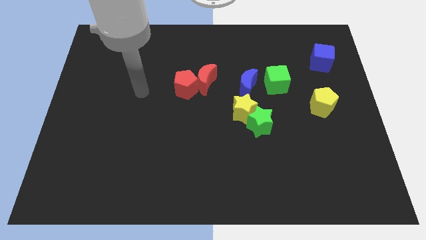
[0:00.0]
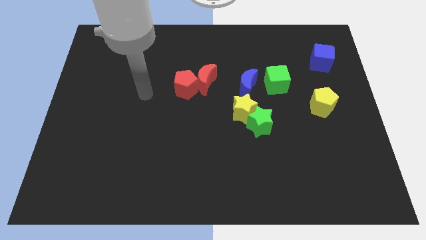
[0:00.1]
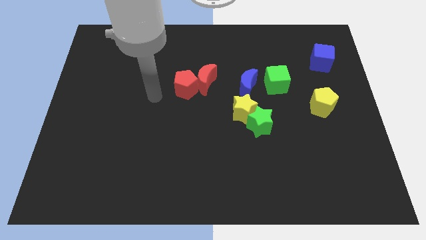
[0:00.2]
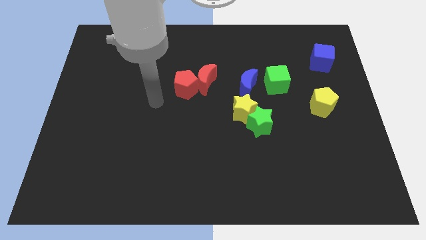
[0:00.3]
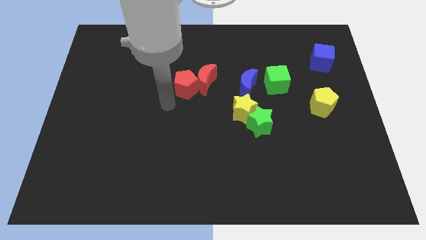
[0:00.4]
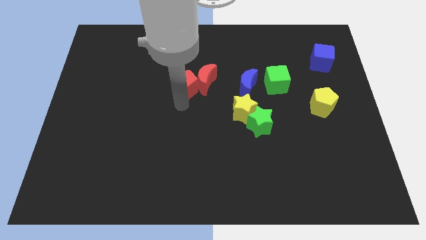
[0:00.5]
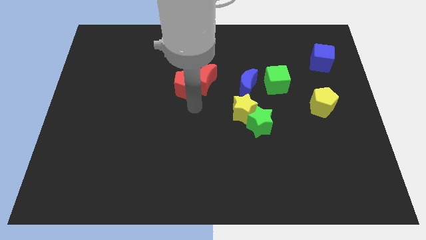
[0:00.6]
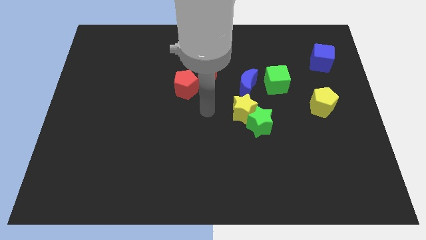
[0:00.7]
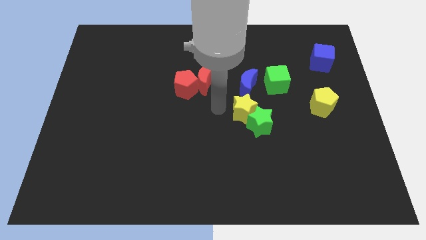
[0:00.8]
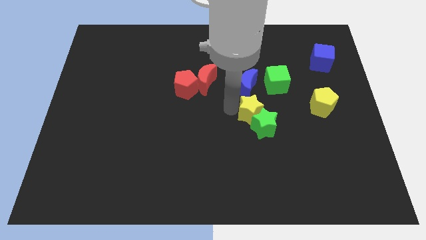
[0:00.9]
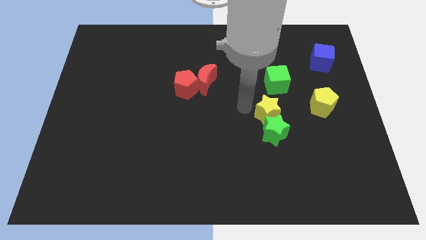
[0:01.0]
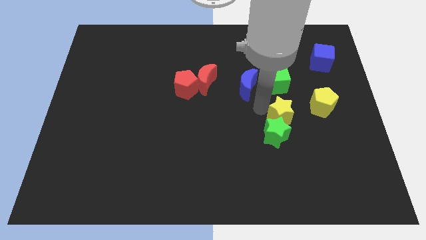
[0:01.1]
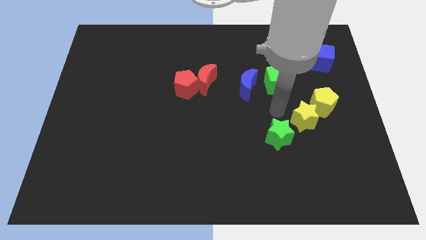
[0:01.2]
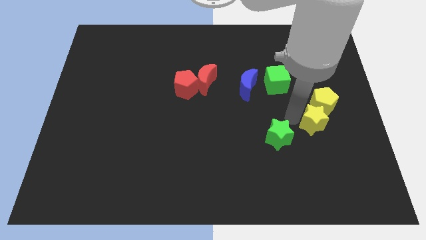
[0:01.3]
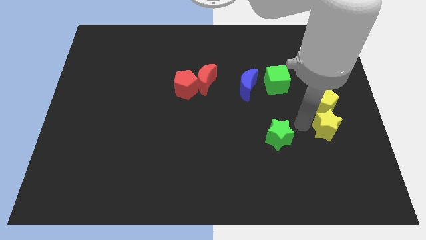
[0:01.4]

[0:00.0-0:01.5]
separate the green star from the yellow star

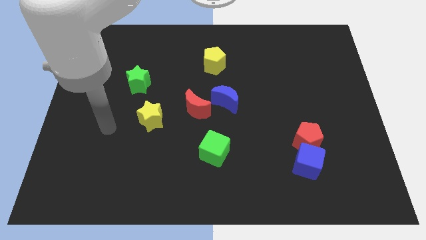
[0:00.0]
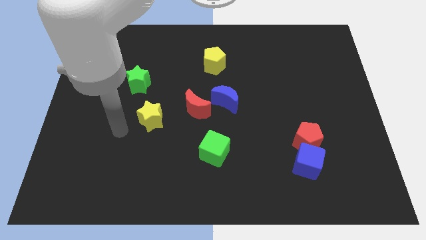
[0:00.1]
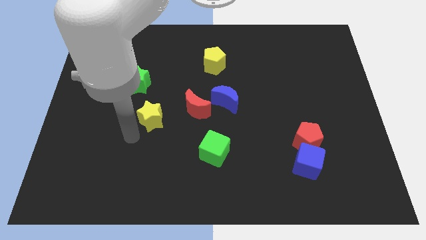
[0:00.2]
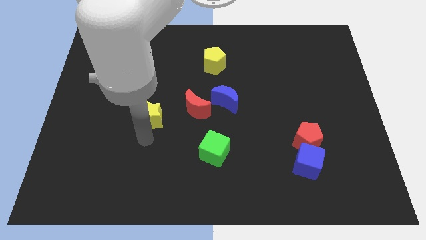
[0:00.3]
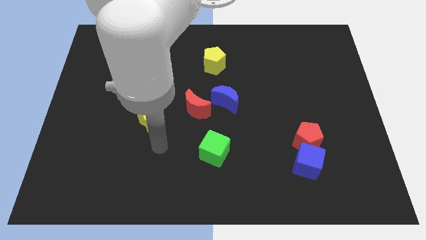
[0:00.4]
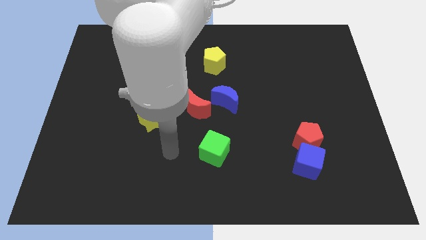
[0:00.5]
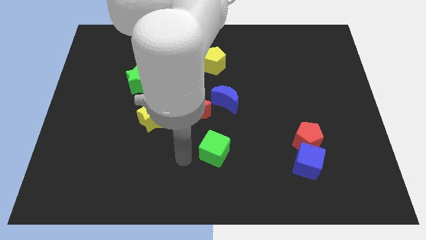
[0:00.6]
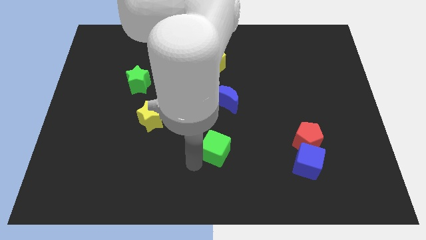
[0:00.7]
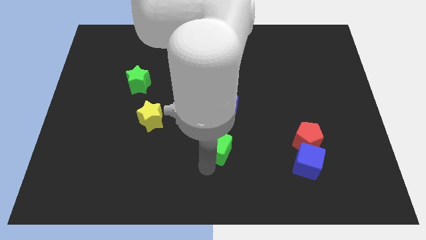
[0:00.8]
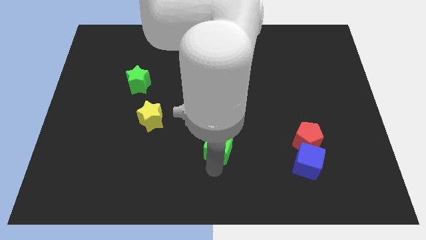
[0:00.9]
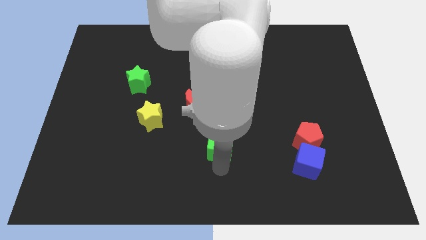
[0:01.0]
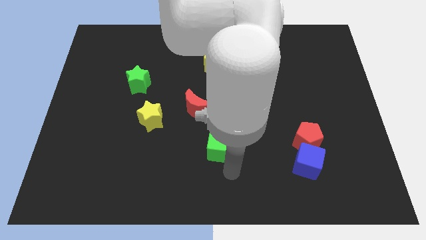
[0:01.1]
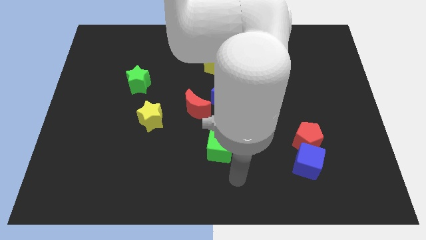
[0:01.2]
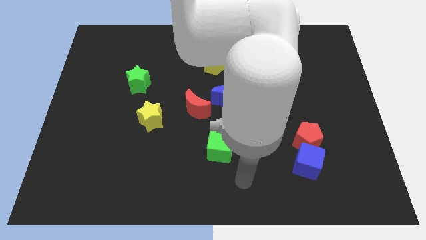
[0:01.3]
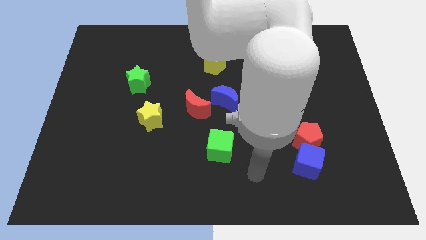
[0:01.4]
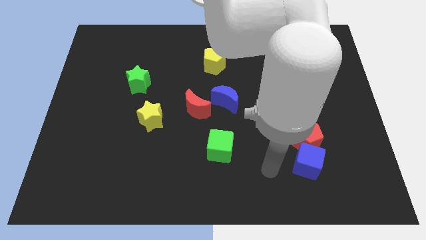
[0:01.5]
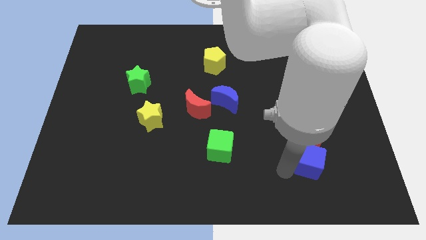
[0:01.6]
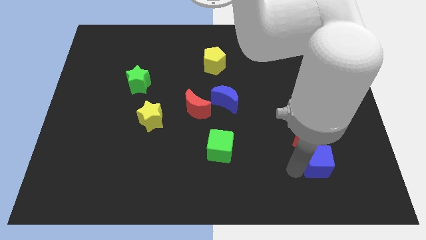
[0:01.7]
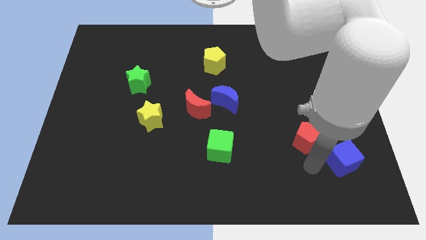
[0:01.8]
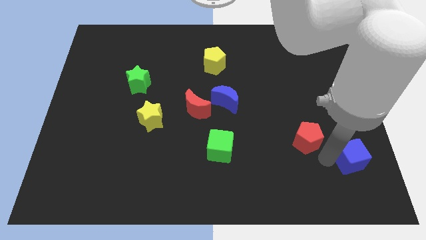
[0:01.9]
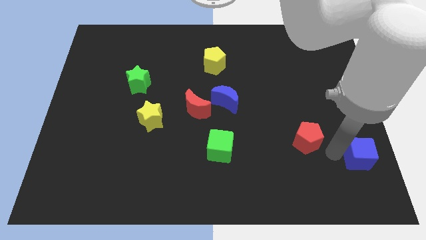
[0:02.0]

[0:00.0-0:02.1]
pull the red pentagon apart from the blue cube

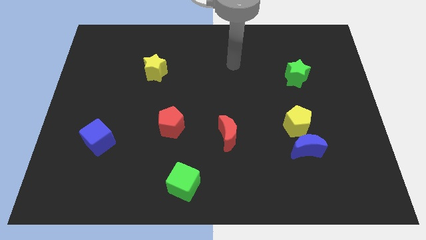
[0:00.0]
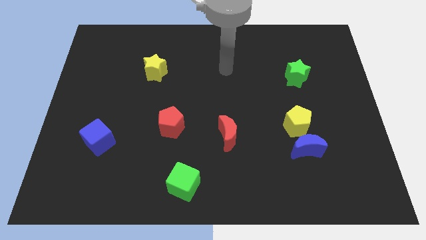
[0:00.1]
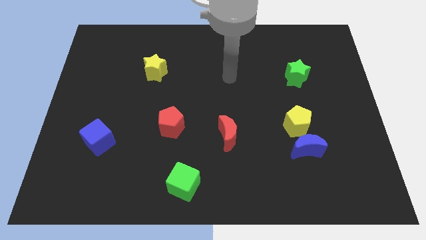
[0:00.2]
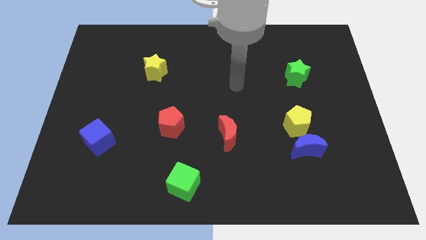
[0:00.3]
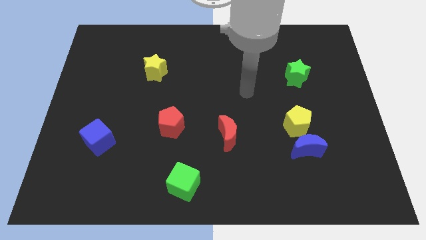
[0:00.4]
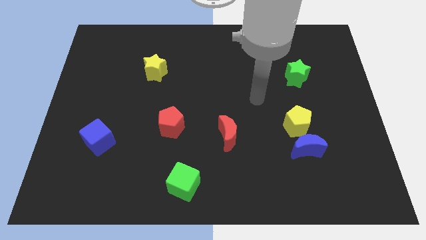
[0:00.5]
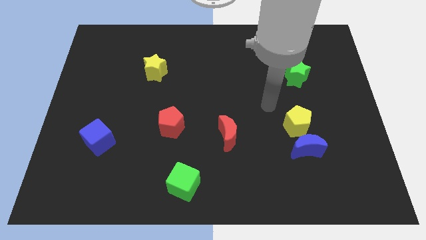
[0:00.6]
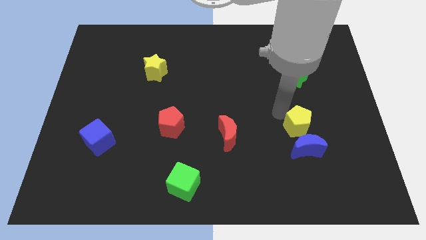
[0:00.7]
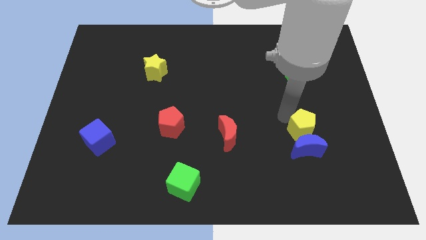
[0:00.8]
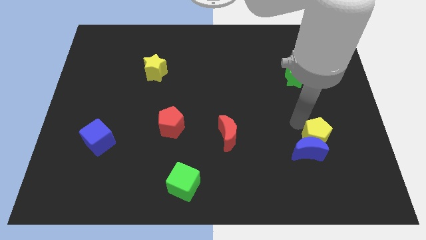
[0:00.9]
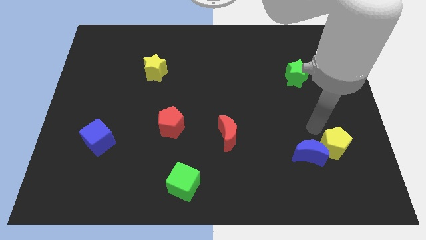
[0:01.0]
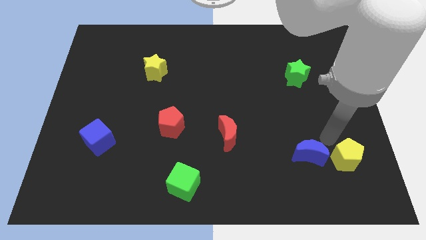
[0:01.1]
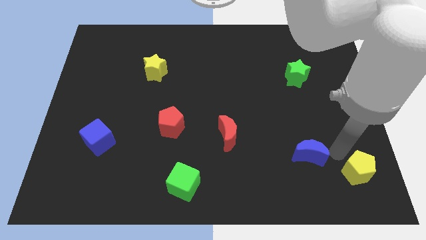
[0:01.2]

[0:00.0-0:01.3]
separate the blue moon from the yellow pentagon

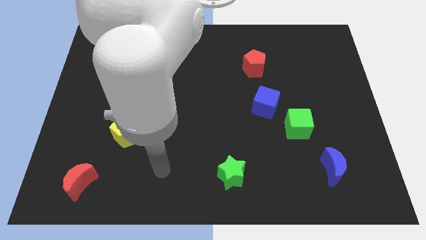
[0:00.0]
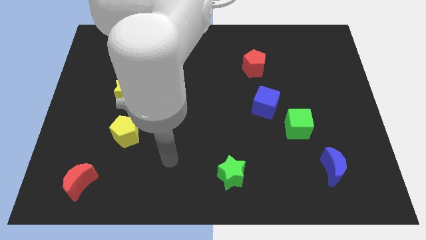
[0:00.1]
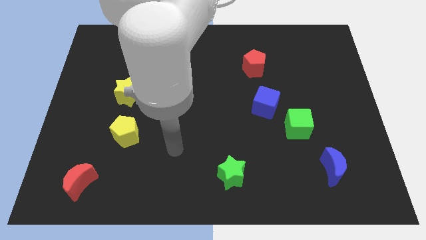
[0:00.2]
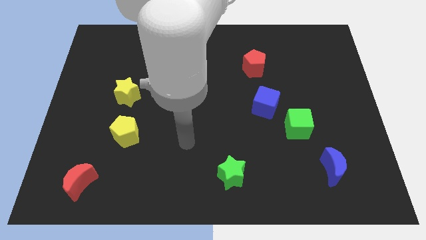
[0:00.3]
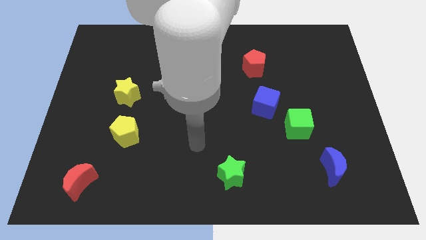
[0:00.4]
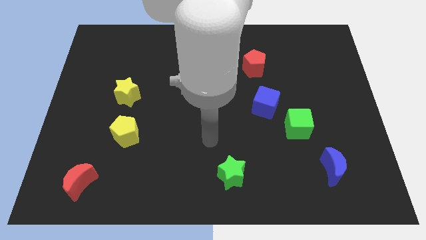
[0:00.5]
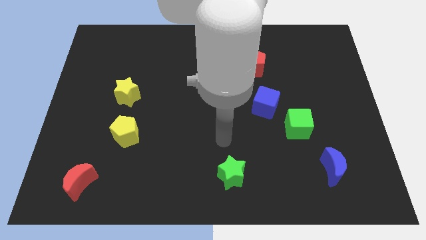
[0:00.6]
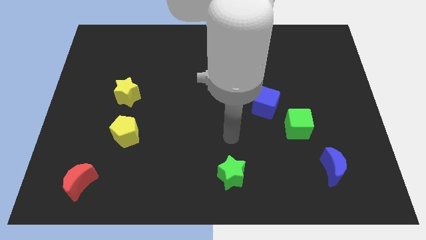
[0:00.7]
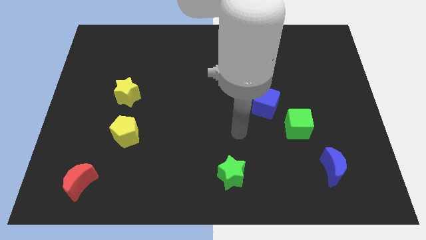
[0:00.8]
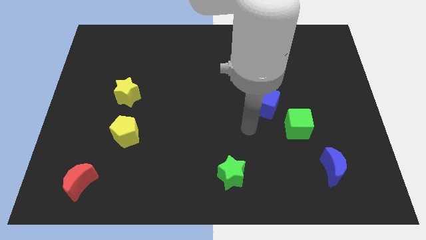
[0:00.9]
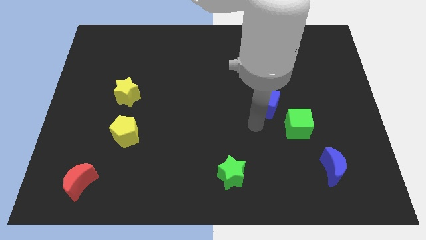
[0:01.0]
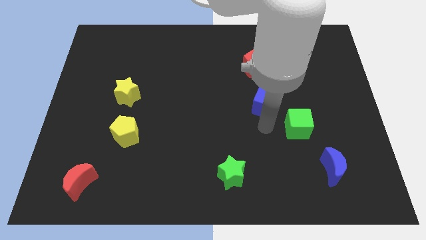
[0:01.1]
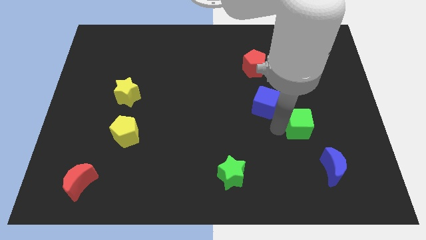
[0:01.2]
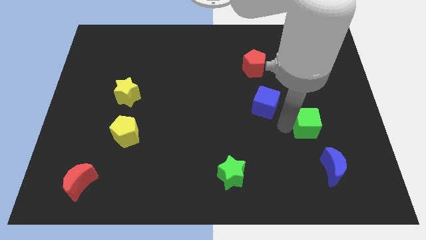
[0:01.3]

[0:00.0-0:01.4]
separate the blue cube from the green cube

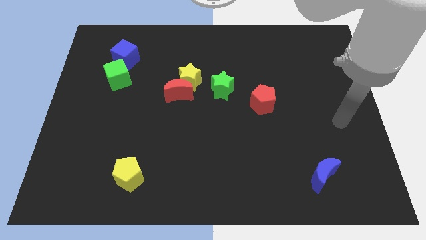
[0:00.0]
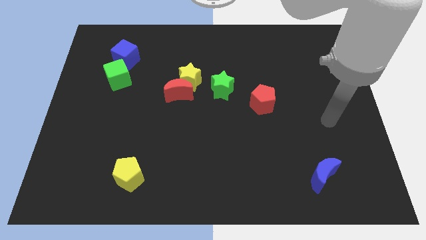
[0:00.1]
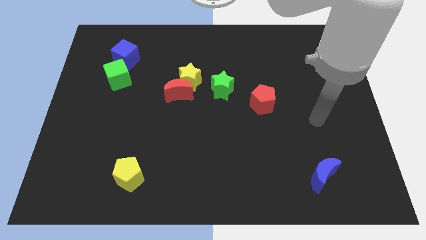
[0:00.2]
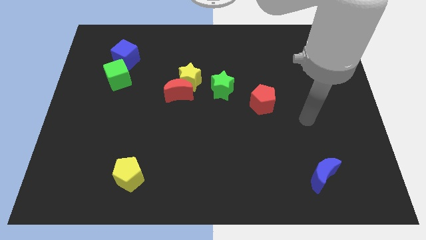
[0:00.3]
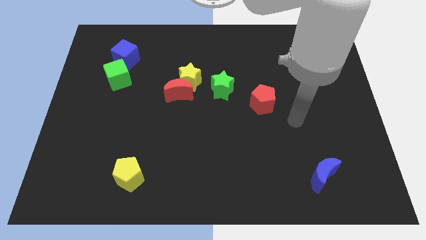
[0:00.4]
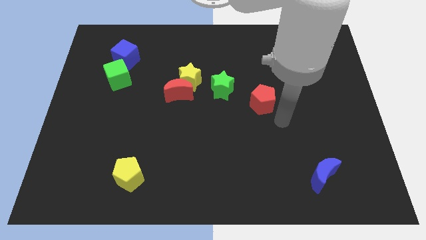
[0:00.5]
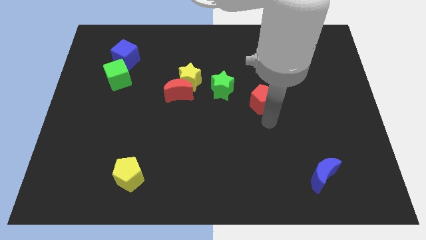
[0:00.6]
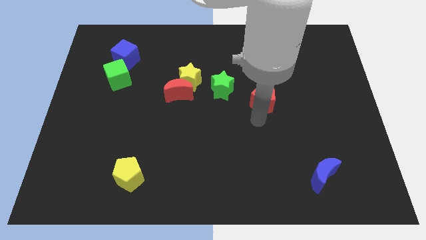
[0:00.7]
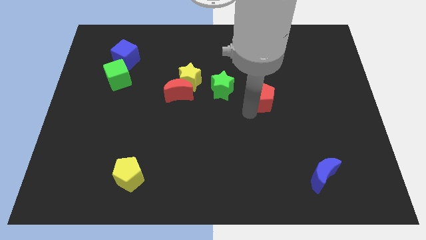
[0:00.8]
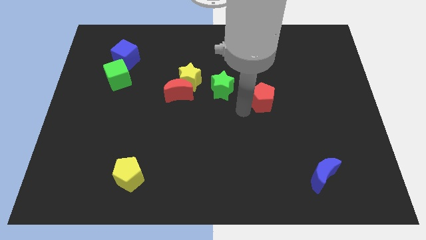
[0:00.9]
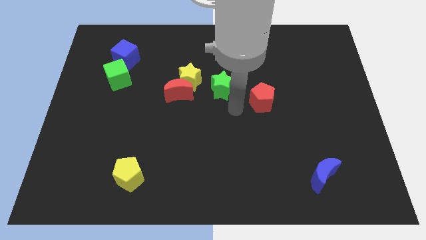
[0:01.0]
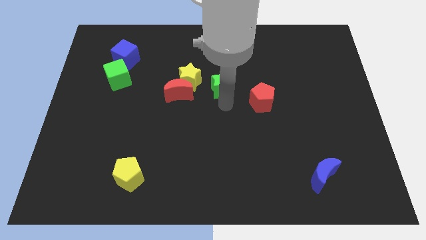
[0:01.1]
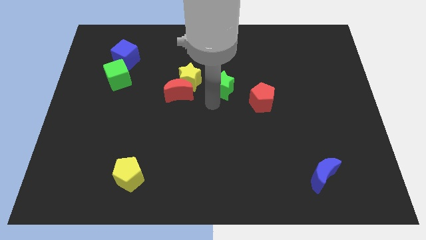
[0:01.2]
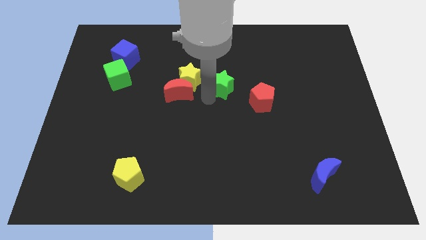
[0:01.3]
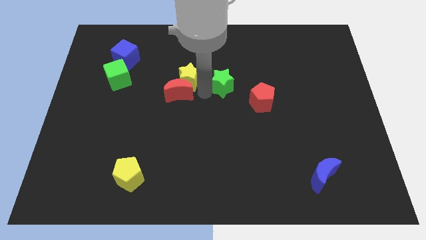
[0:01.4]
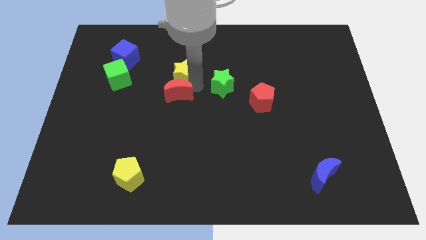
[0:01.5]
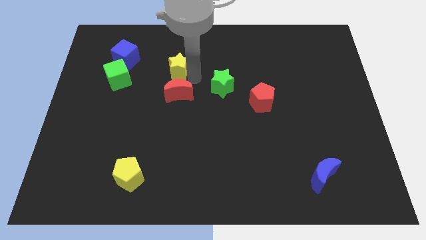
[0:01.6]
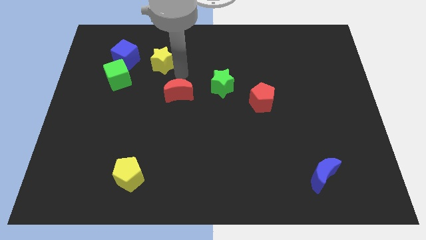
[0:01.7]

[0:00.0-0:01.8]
move the red moon away from the yellow star

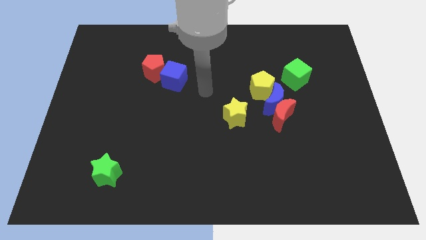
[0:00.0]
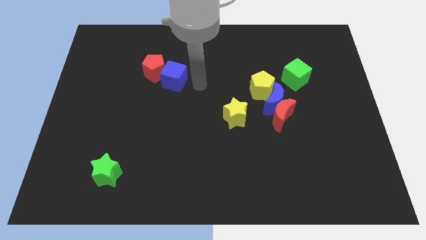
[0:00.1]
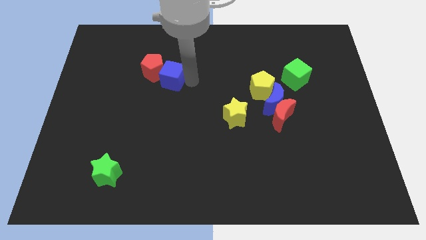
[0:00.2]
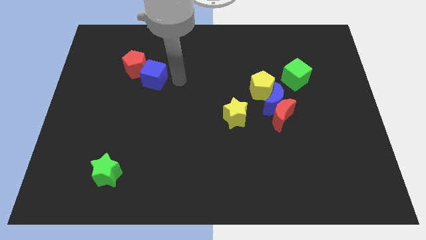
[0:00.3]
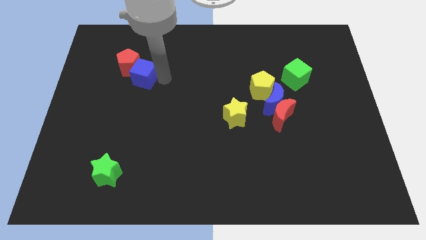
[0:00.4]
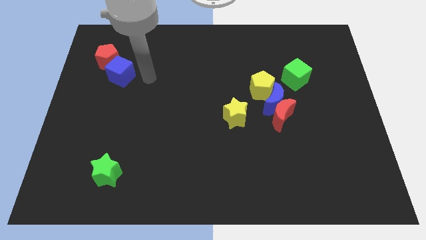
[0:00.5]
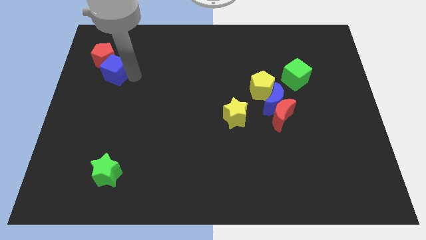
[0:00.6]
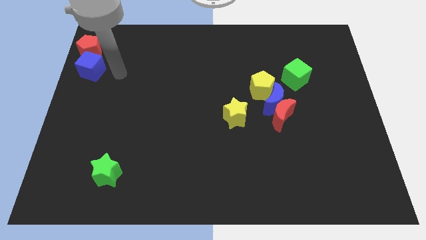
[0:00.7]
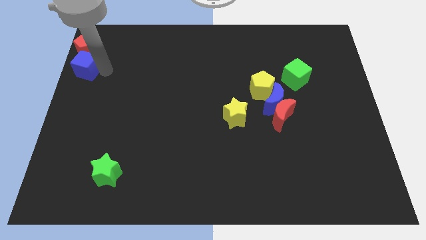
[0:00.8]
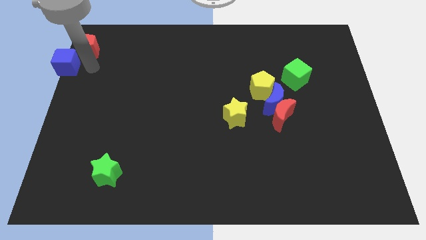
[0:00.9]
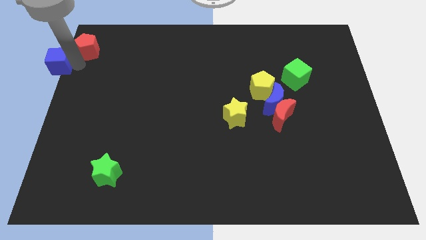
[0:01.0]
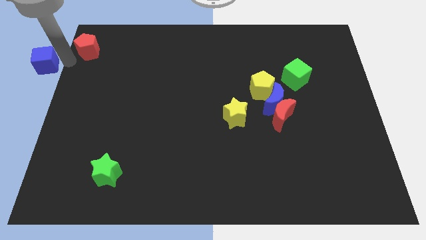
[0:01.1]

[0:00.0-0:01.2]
separate the red pentagon from the blue cube
